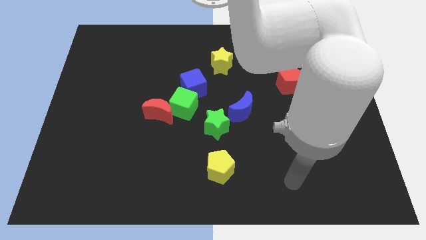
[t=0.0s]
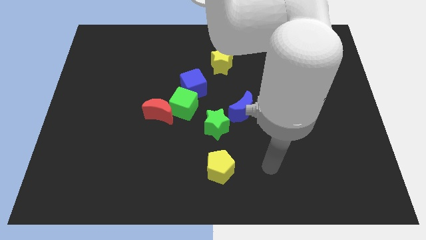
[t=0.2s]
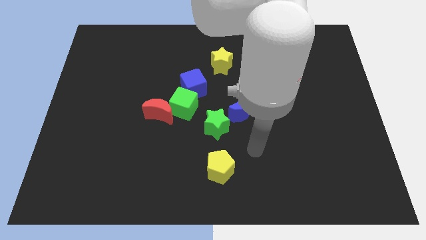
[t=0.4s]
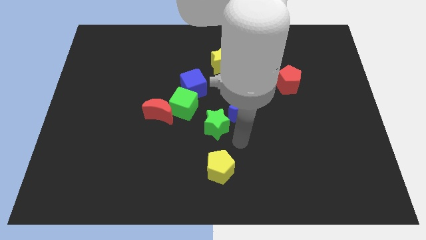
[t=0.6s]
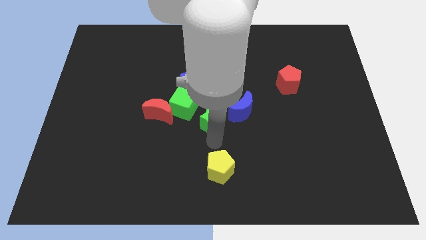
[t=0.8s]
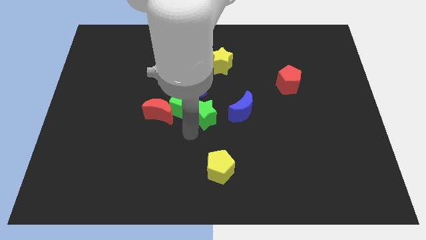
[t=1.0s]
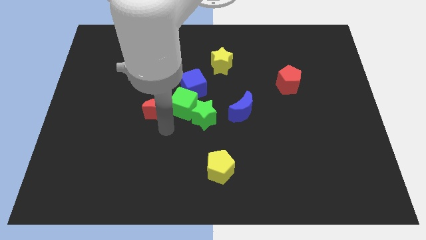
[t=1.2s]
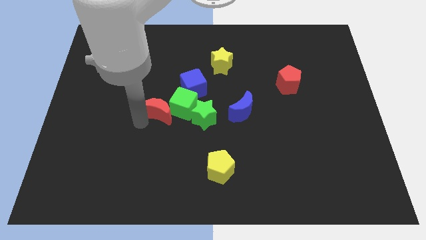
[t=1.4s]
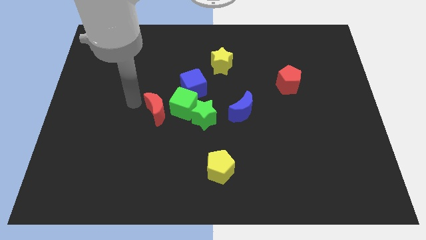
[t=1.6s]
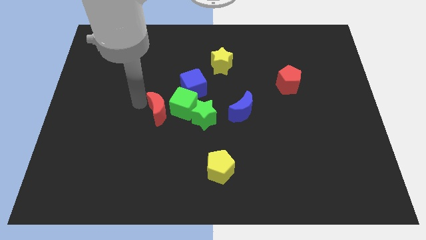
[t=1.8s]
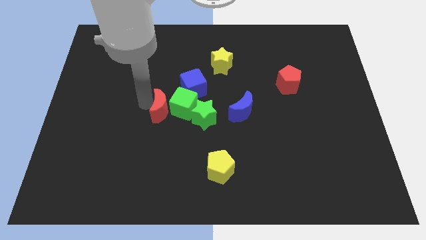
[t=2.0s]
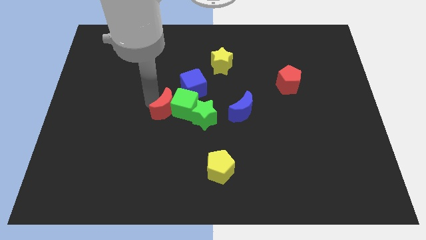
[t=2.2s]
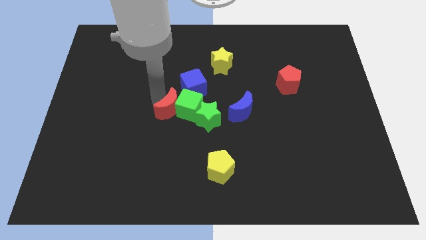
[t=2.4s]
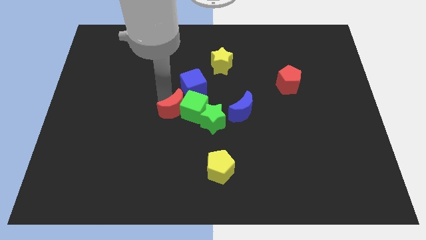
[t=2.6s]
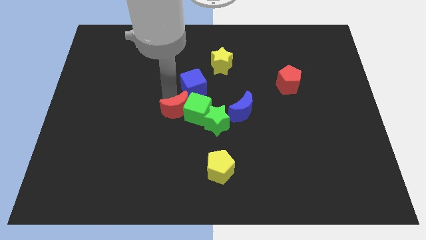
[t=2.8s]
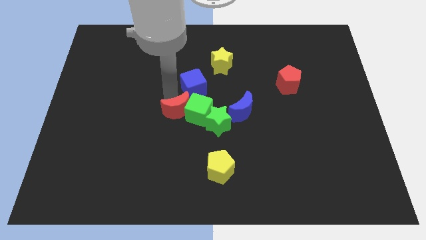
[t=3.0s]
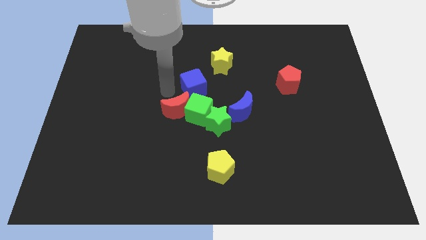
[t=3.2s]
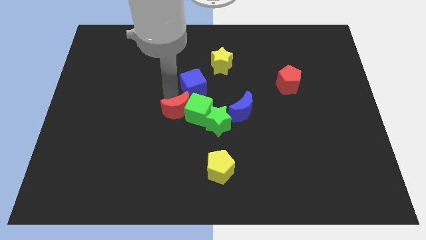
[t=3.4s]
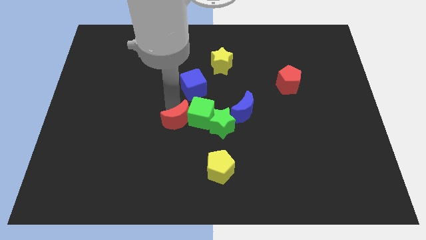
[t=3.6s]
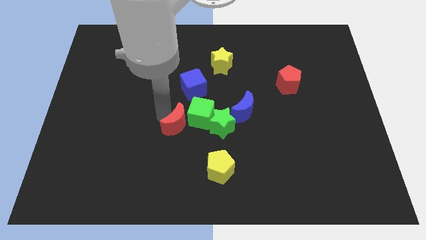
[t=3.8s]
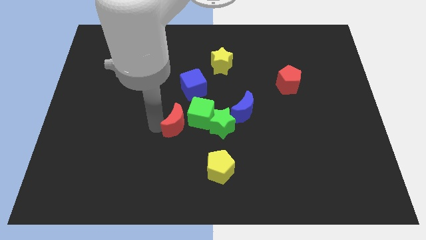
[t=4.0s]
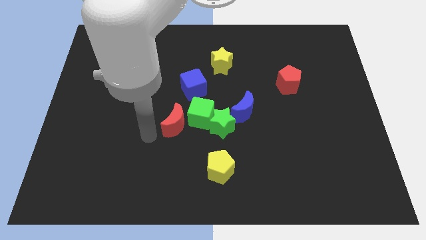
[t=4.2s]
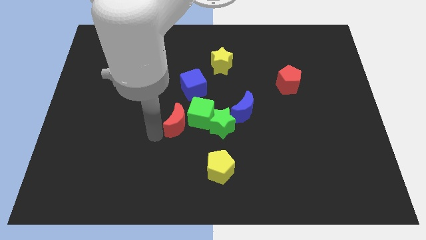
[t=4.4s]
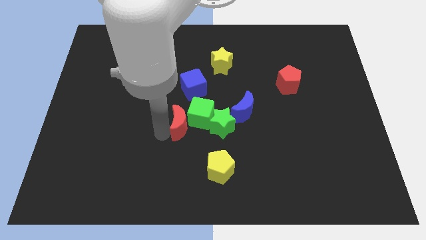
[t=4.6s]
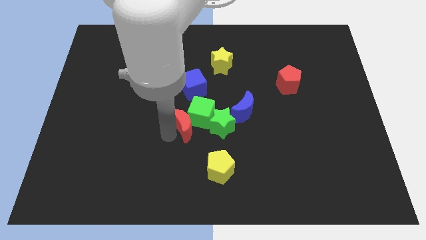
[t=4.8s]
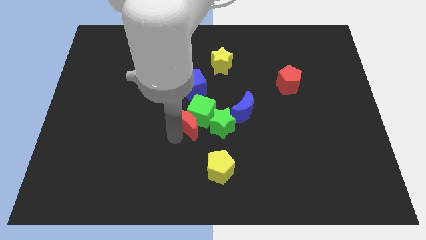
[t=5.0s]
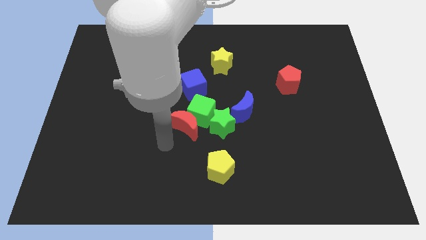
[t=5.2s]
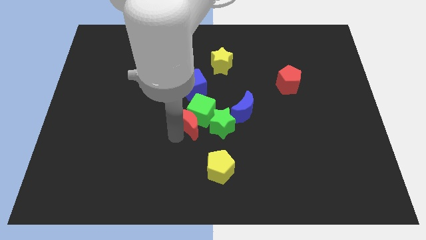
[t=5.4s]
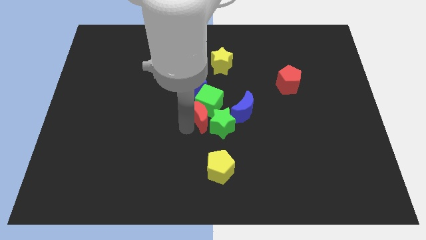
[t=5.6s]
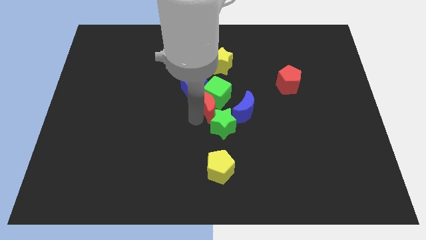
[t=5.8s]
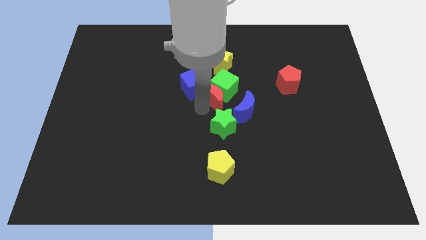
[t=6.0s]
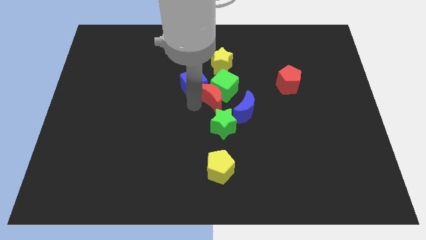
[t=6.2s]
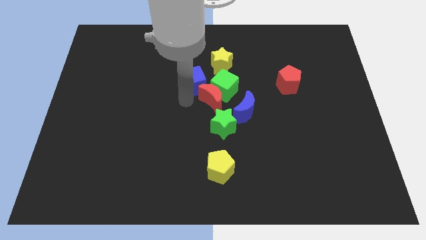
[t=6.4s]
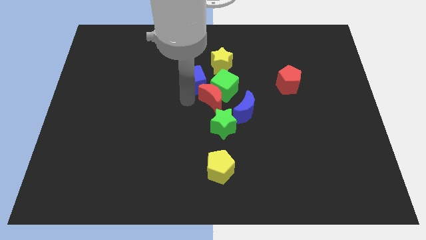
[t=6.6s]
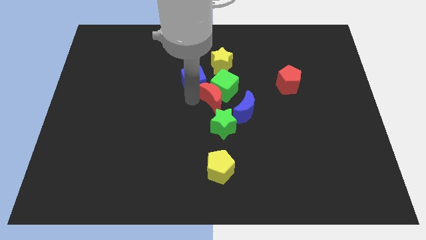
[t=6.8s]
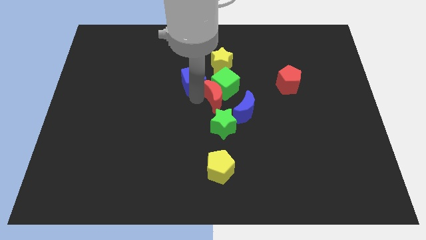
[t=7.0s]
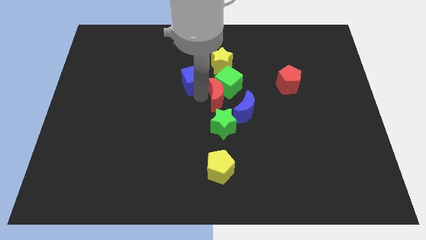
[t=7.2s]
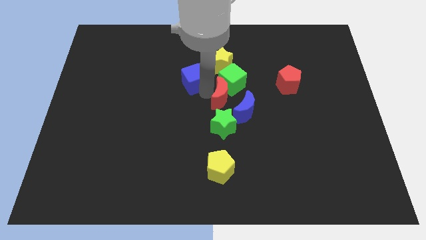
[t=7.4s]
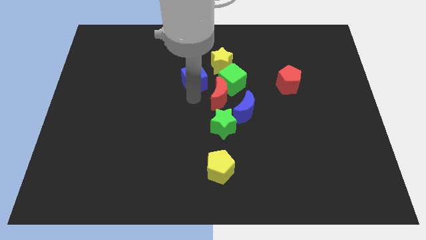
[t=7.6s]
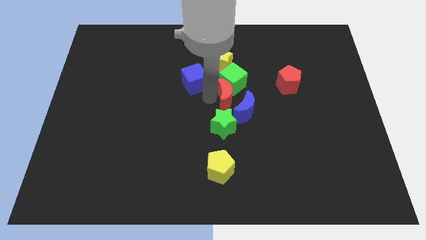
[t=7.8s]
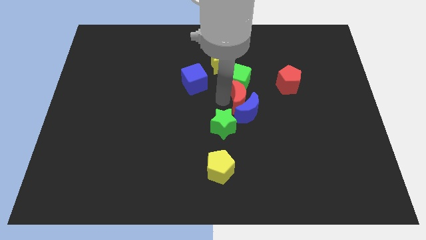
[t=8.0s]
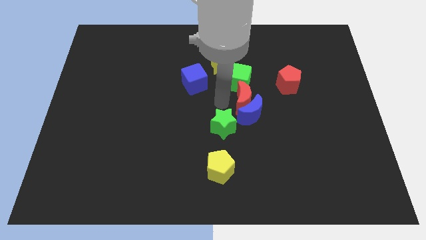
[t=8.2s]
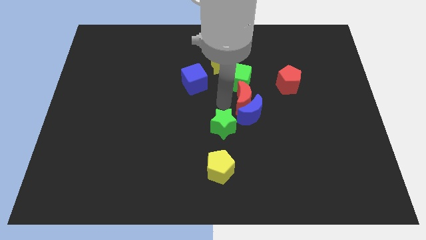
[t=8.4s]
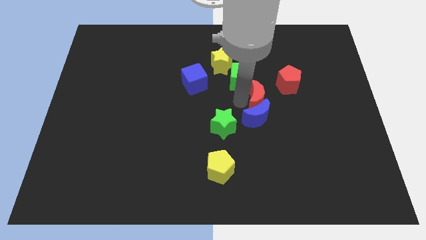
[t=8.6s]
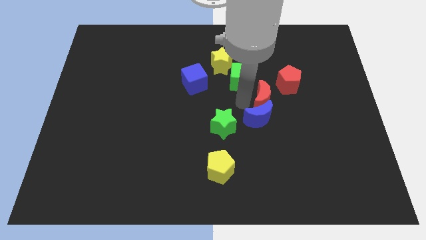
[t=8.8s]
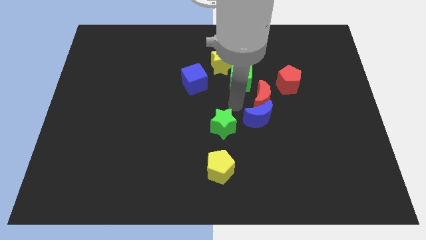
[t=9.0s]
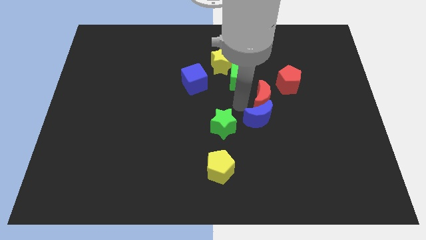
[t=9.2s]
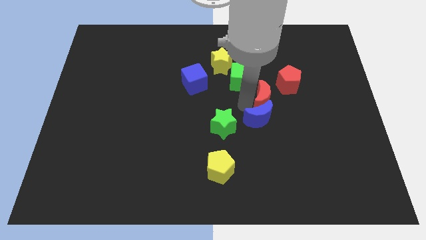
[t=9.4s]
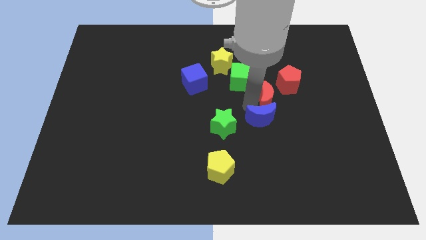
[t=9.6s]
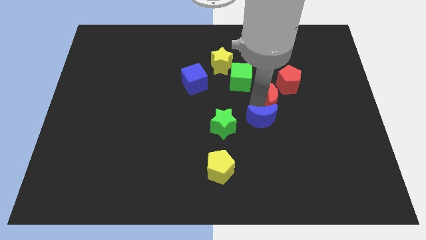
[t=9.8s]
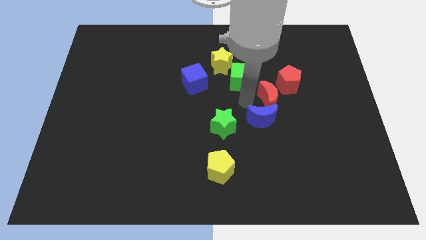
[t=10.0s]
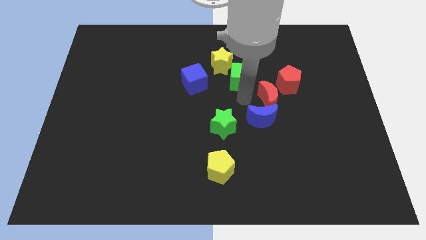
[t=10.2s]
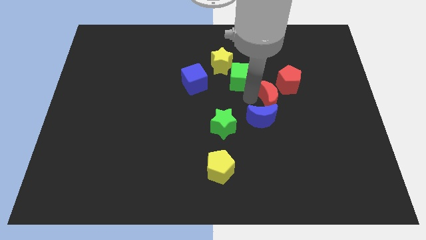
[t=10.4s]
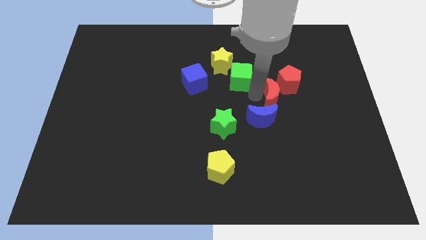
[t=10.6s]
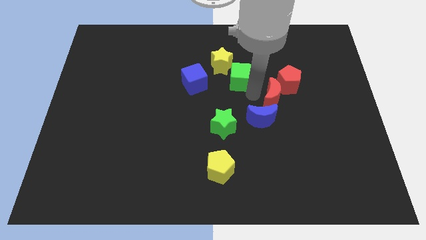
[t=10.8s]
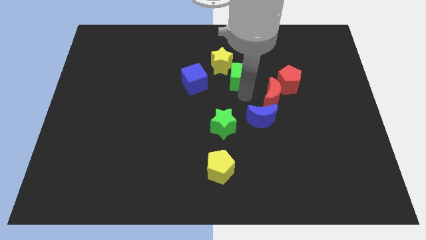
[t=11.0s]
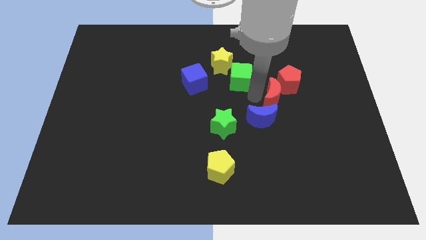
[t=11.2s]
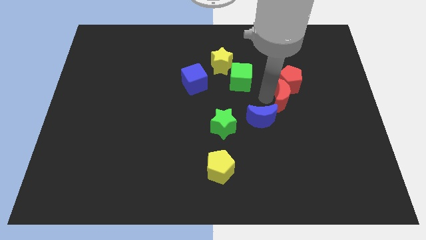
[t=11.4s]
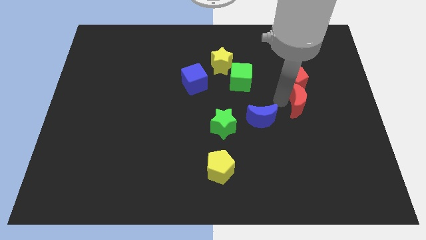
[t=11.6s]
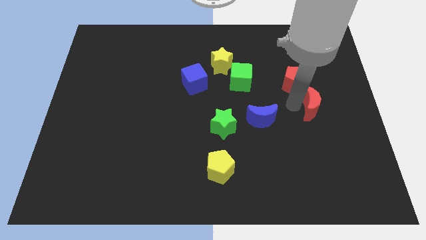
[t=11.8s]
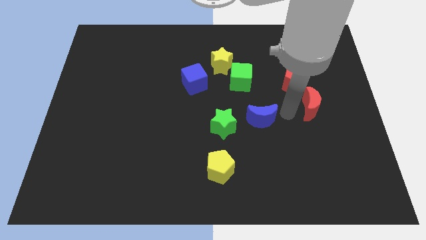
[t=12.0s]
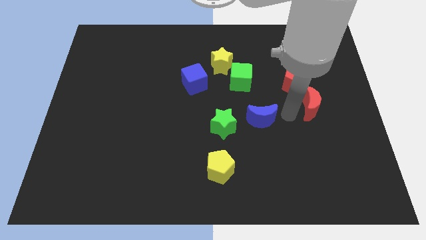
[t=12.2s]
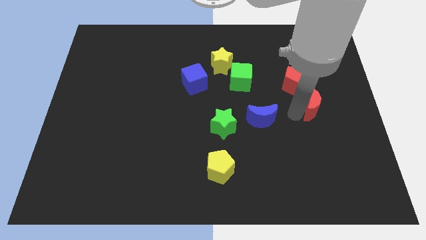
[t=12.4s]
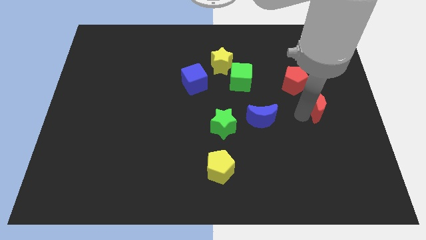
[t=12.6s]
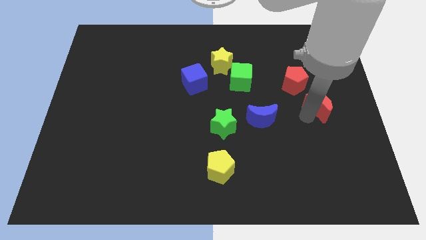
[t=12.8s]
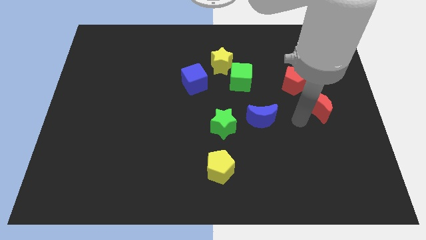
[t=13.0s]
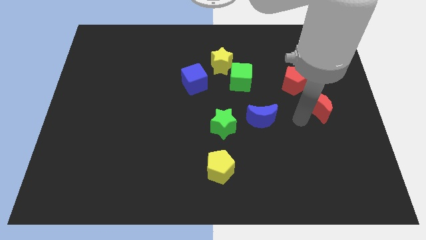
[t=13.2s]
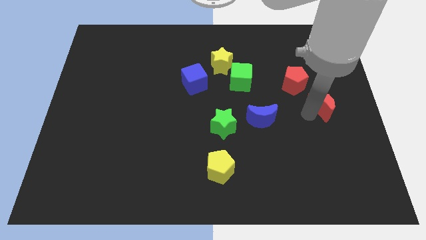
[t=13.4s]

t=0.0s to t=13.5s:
push the red moon to the right side
